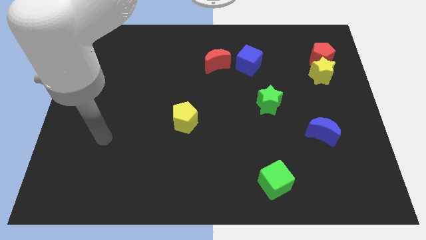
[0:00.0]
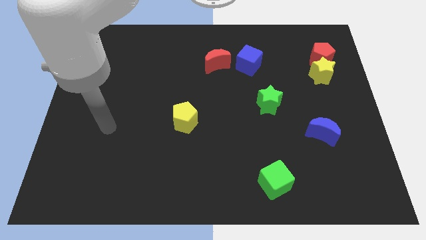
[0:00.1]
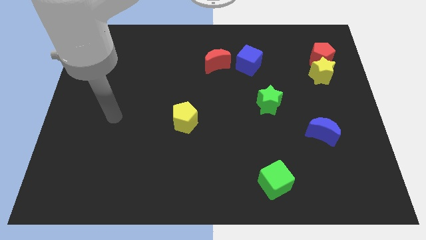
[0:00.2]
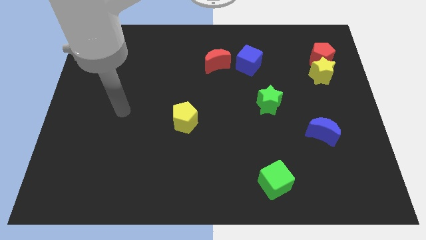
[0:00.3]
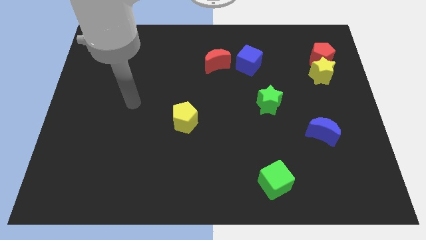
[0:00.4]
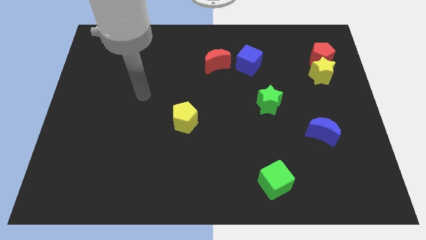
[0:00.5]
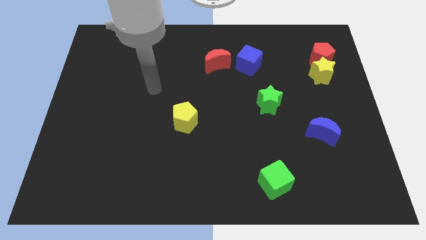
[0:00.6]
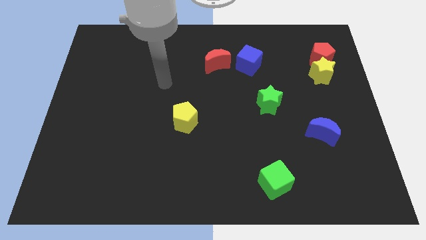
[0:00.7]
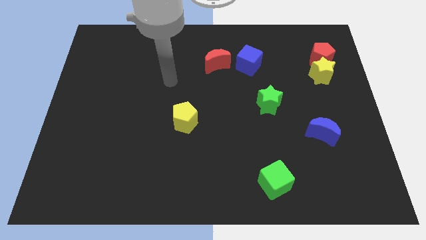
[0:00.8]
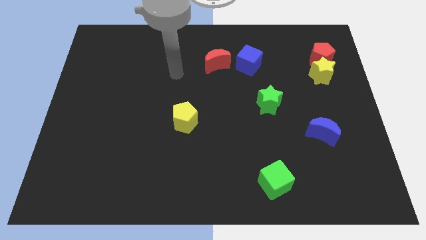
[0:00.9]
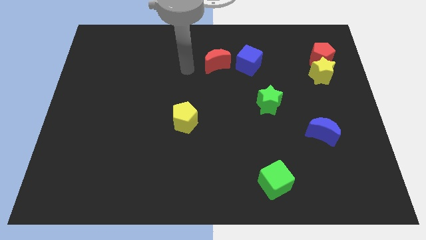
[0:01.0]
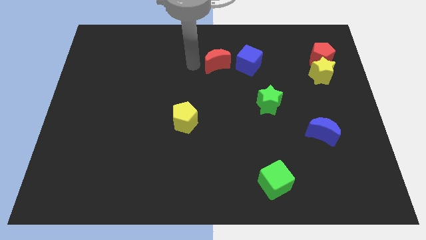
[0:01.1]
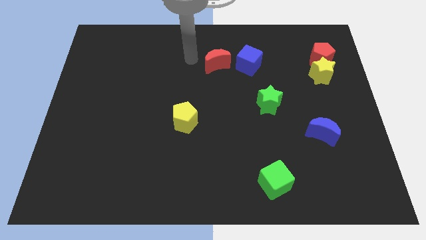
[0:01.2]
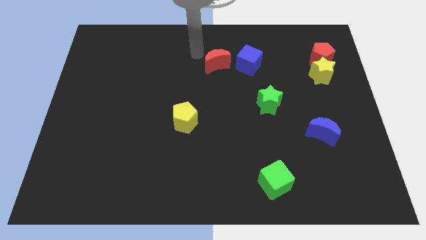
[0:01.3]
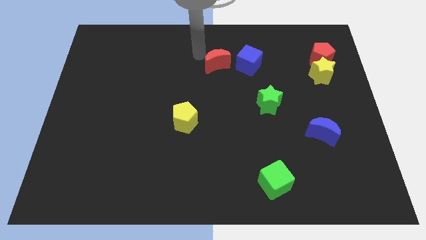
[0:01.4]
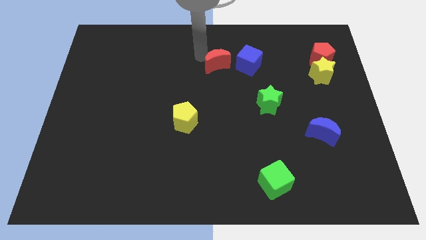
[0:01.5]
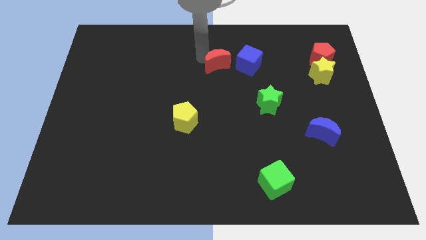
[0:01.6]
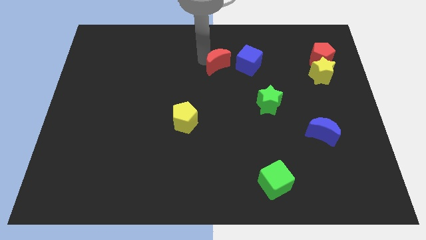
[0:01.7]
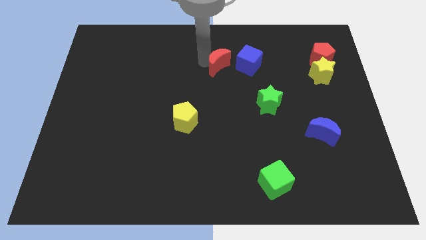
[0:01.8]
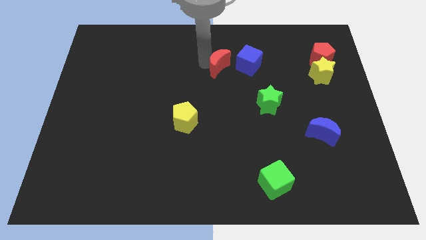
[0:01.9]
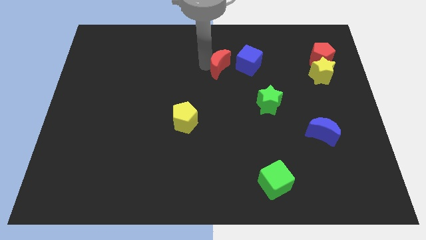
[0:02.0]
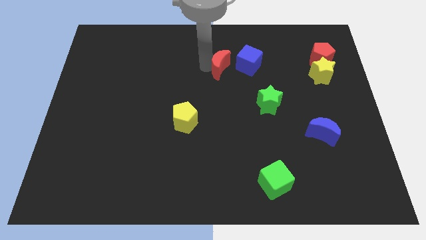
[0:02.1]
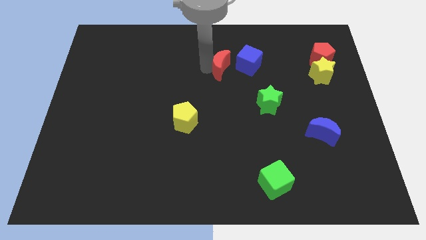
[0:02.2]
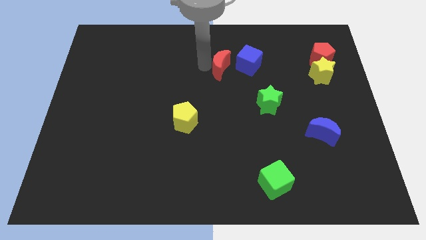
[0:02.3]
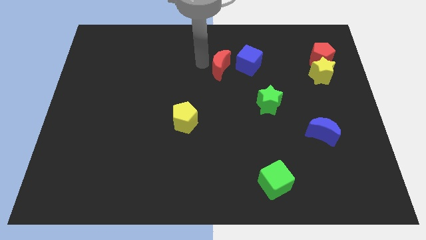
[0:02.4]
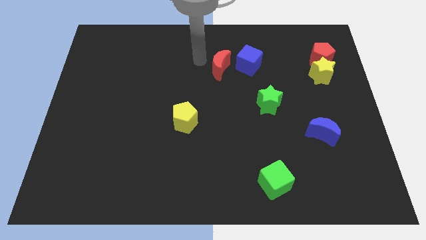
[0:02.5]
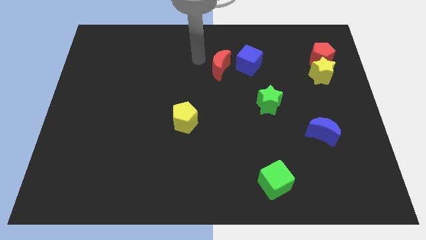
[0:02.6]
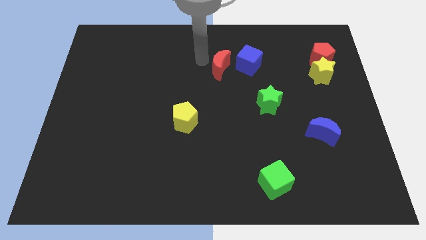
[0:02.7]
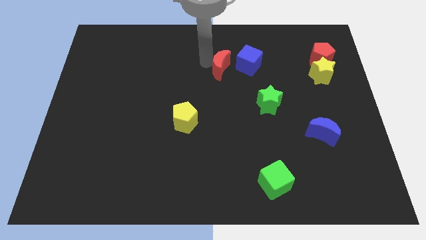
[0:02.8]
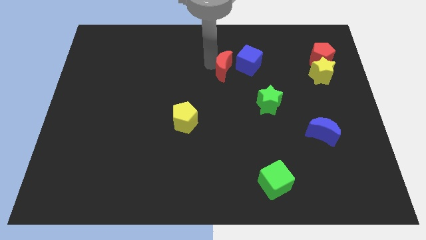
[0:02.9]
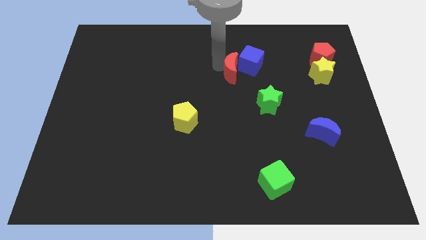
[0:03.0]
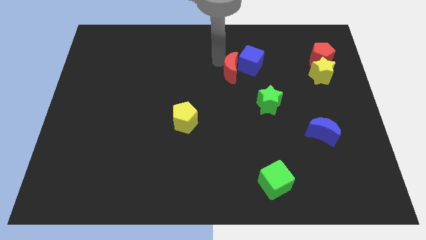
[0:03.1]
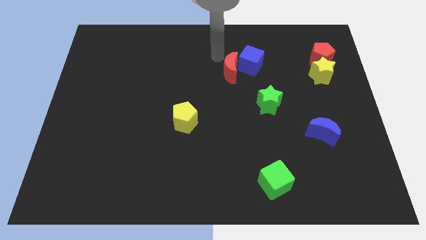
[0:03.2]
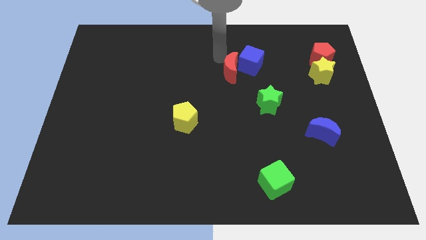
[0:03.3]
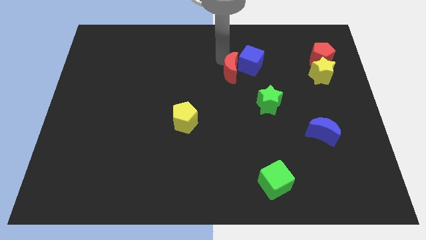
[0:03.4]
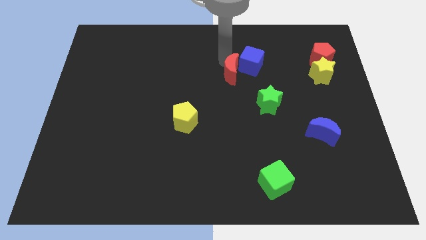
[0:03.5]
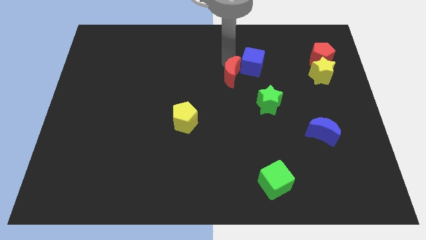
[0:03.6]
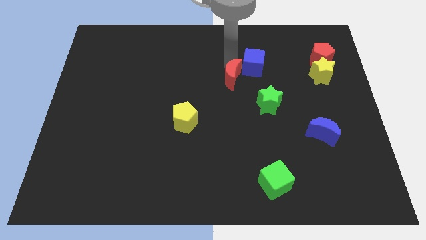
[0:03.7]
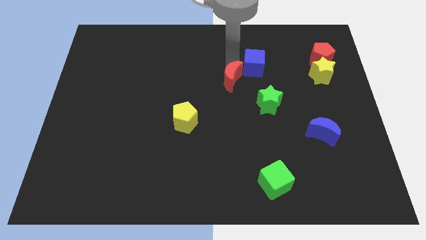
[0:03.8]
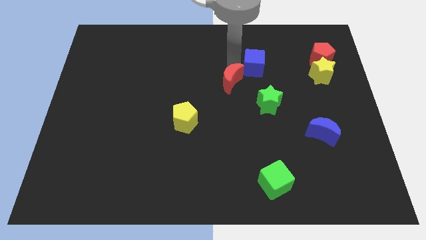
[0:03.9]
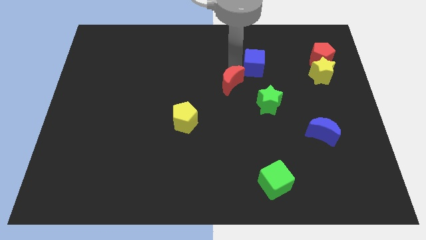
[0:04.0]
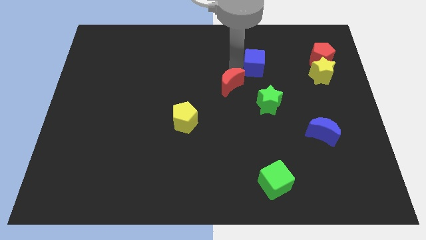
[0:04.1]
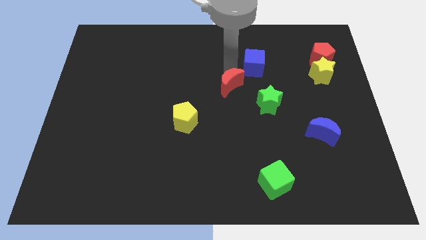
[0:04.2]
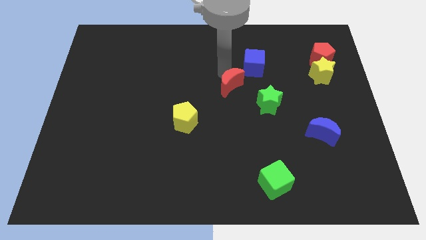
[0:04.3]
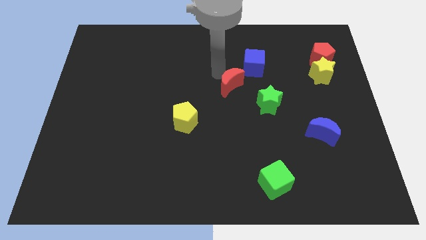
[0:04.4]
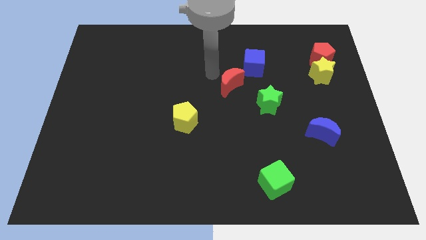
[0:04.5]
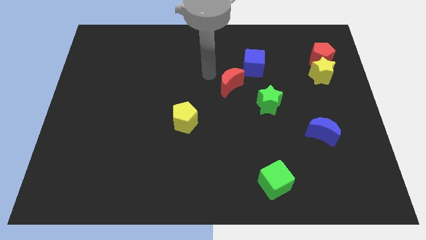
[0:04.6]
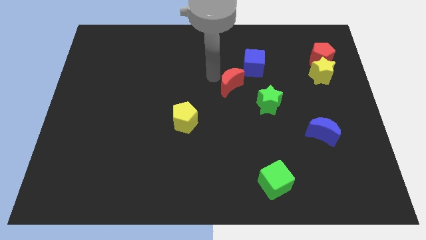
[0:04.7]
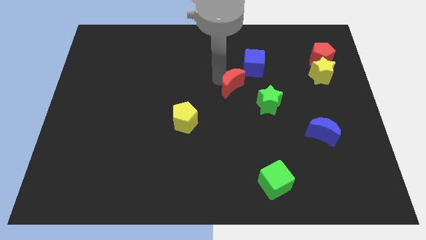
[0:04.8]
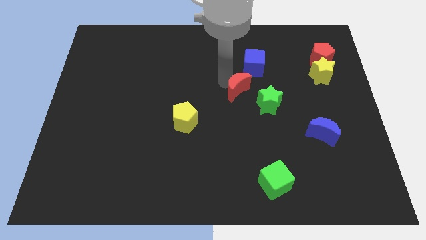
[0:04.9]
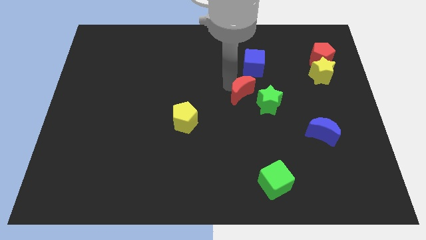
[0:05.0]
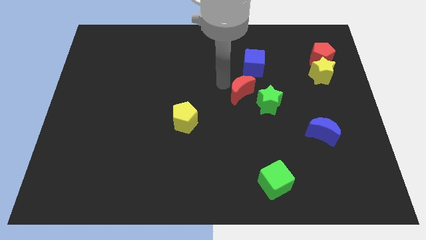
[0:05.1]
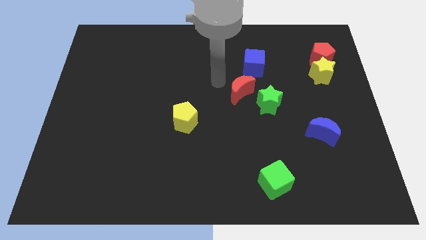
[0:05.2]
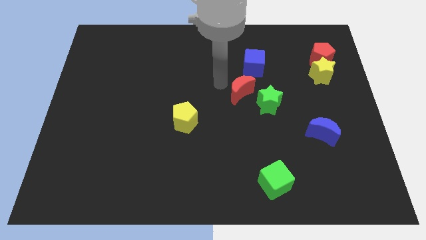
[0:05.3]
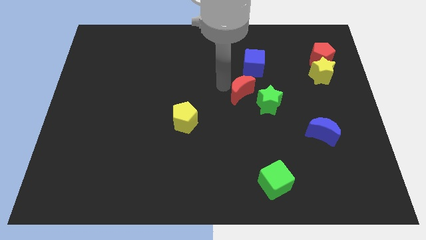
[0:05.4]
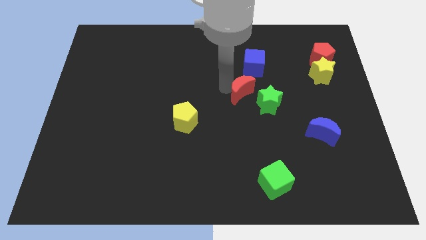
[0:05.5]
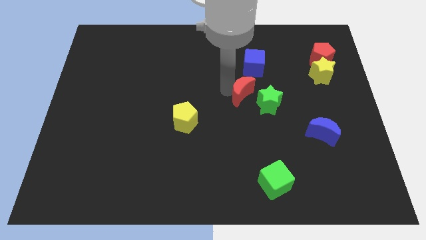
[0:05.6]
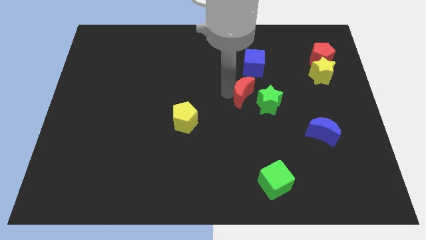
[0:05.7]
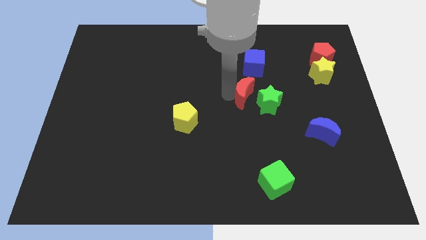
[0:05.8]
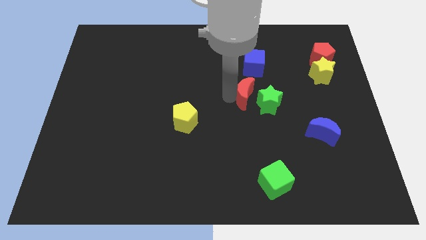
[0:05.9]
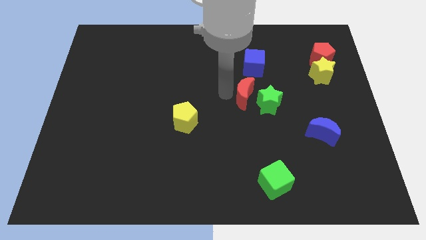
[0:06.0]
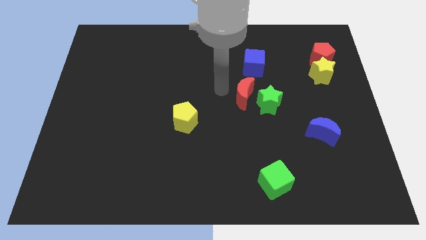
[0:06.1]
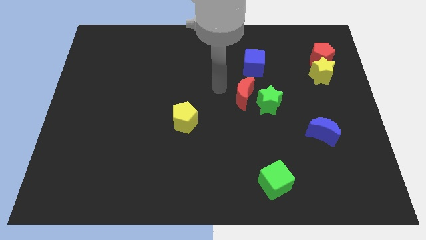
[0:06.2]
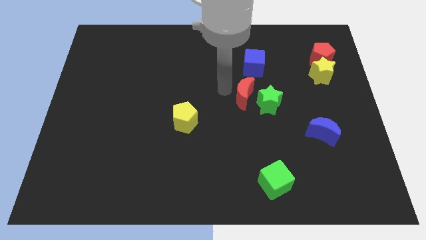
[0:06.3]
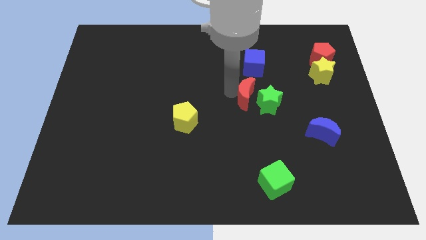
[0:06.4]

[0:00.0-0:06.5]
slide the red moon next to the green star

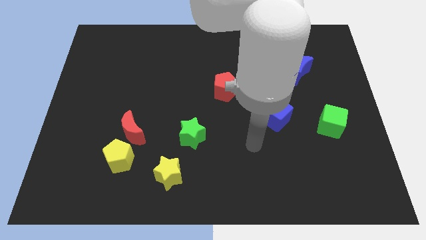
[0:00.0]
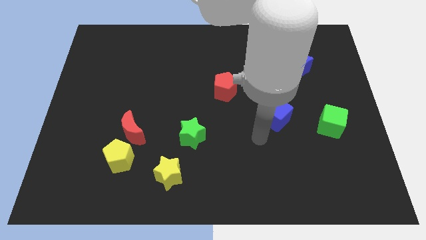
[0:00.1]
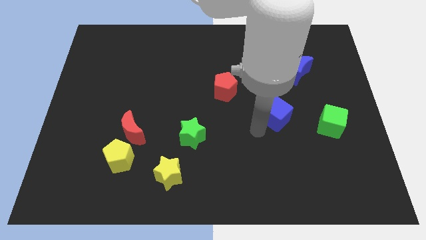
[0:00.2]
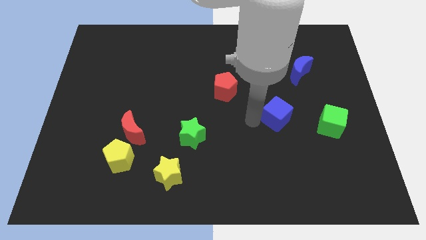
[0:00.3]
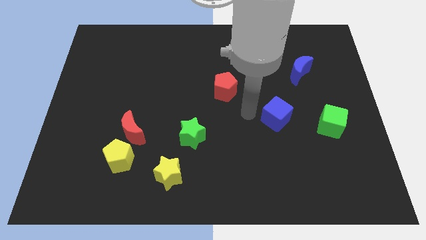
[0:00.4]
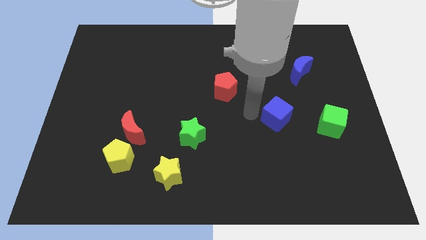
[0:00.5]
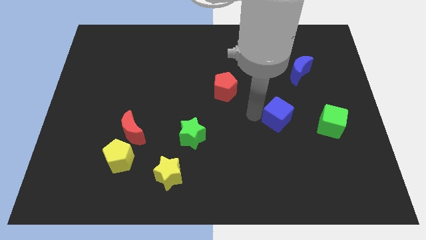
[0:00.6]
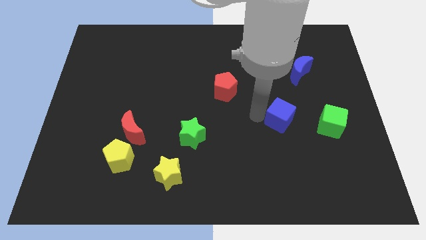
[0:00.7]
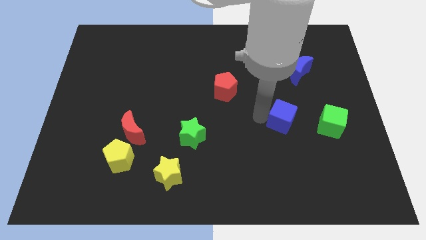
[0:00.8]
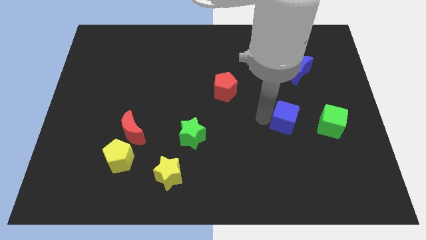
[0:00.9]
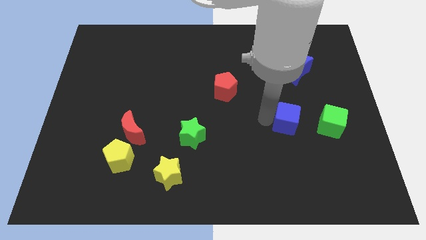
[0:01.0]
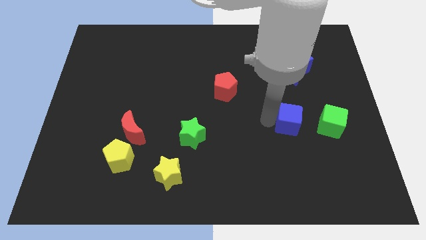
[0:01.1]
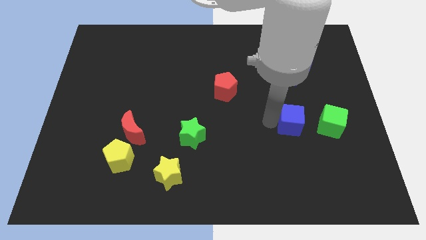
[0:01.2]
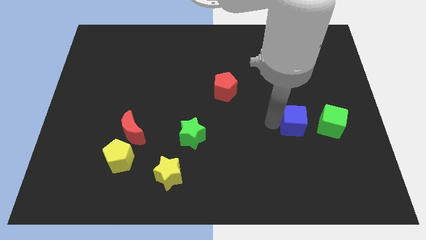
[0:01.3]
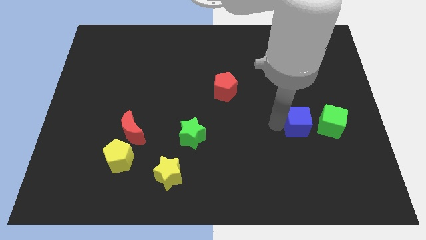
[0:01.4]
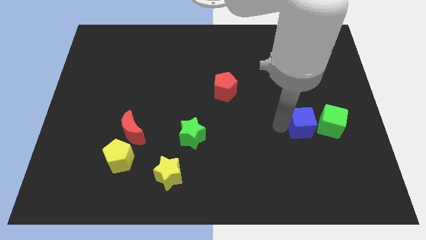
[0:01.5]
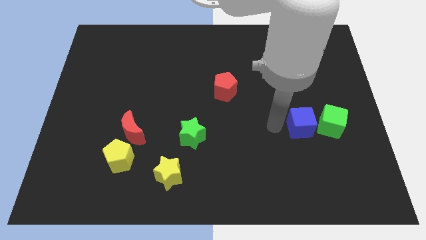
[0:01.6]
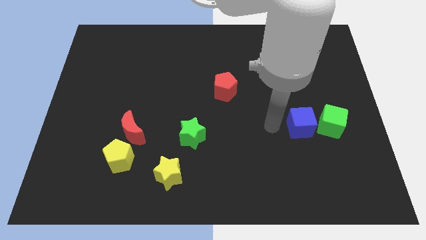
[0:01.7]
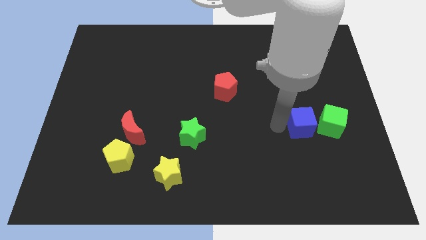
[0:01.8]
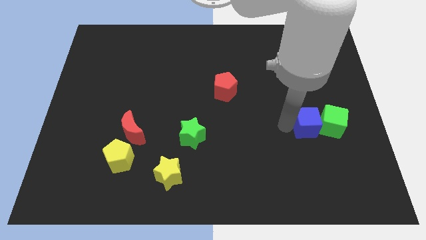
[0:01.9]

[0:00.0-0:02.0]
slide the blue cube next to the green cube

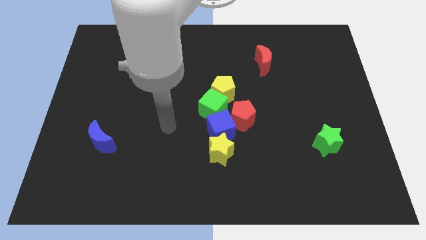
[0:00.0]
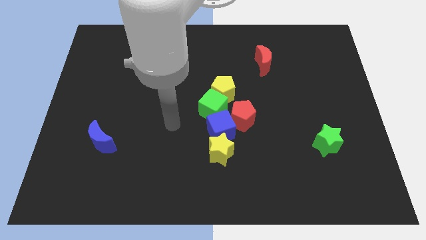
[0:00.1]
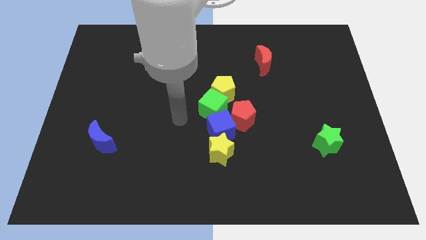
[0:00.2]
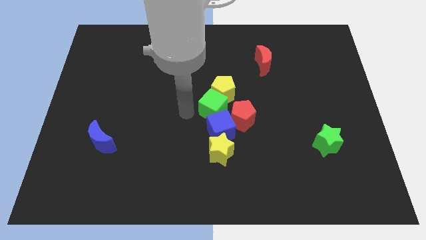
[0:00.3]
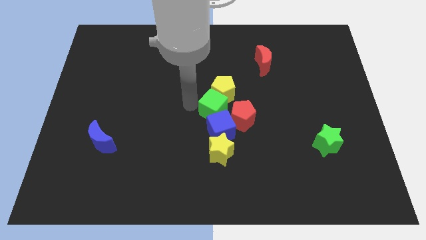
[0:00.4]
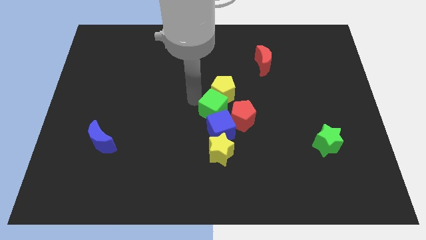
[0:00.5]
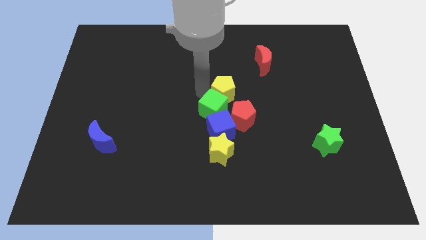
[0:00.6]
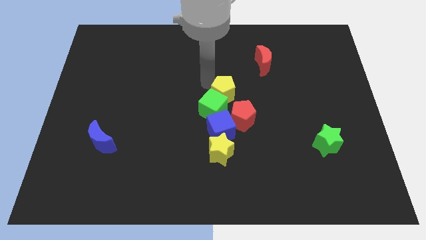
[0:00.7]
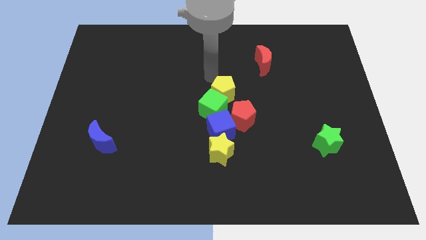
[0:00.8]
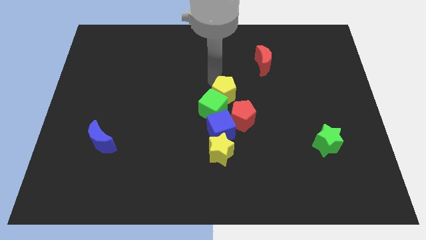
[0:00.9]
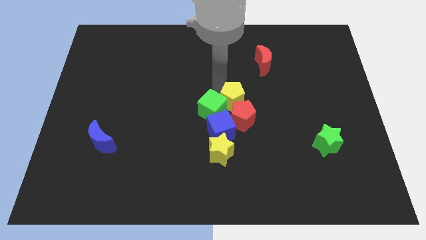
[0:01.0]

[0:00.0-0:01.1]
push the yellow pentagon to the red pentagon
